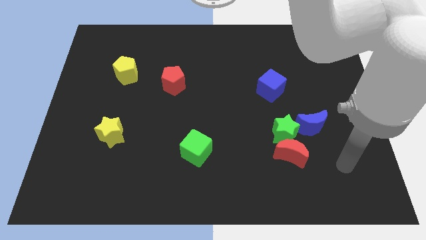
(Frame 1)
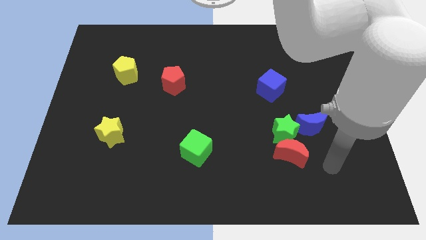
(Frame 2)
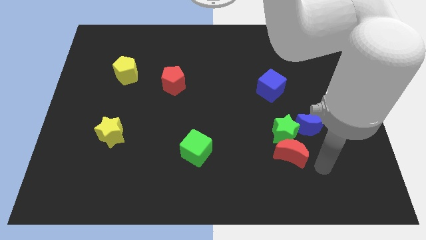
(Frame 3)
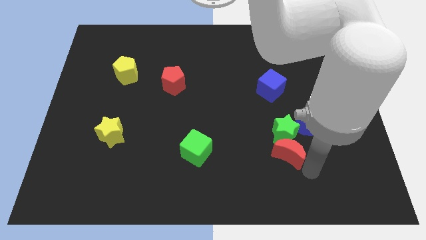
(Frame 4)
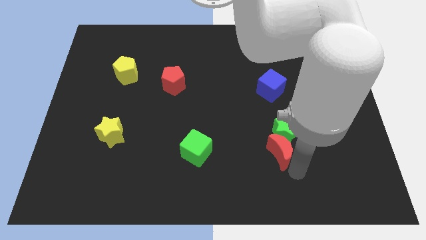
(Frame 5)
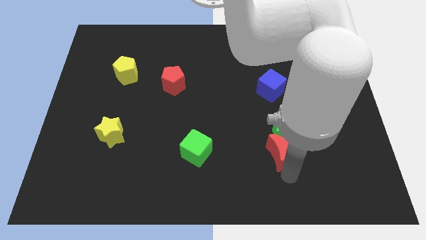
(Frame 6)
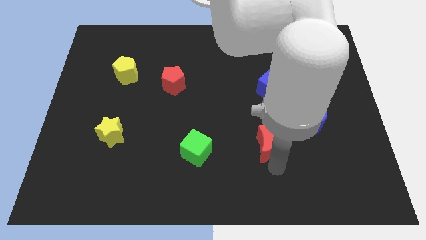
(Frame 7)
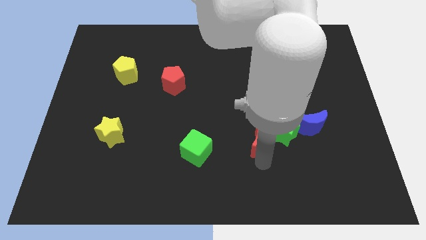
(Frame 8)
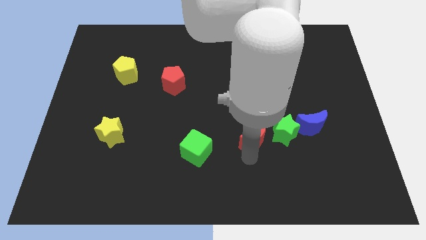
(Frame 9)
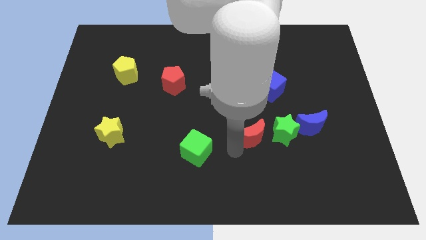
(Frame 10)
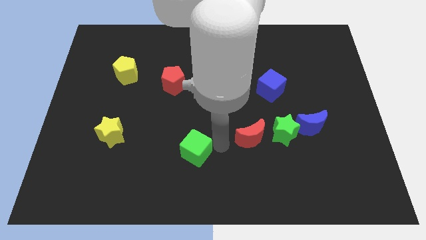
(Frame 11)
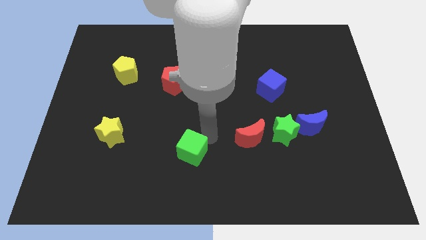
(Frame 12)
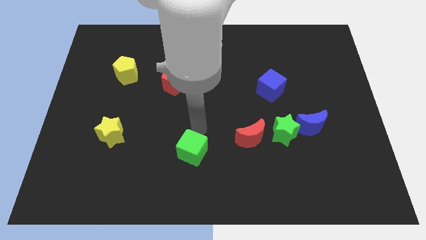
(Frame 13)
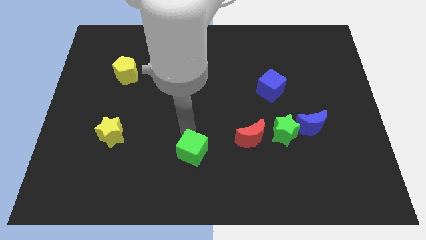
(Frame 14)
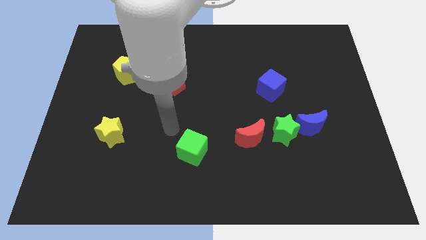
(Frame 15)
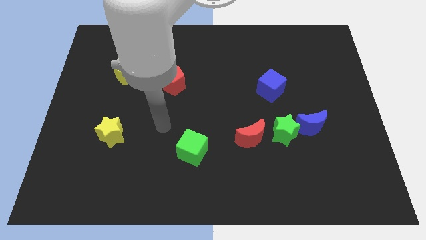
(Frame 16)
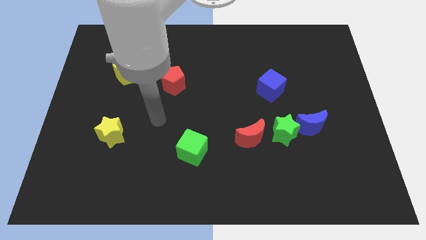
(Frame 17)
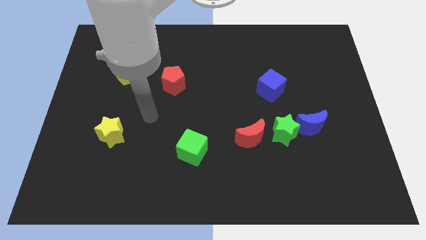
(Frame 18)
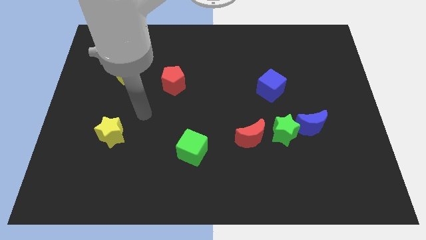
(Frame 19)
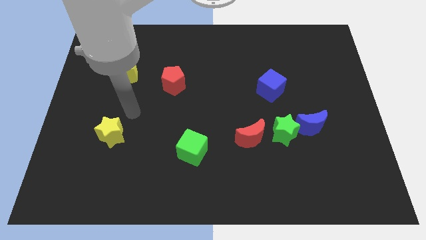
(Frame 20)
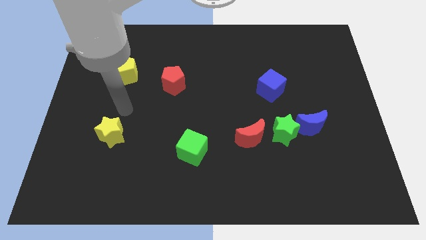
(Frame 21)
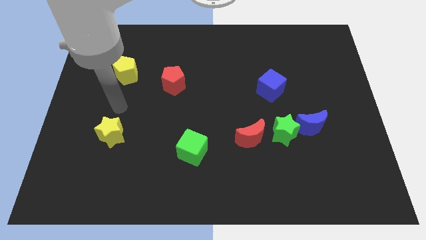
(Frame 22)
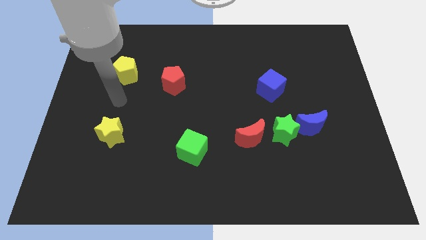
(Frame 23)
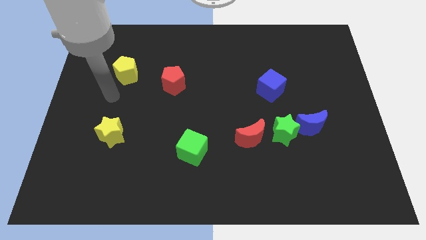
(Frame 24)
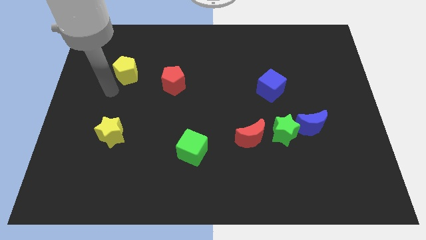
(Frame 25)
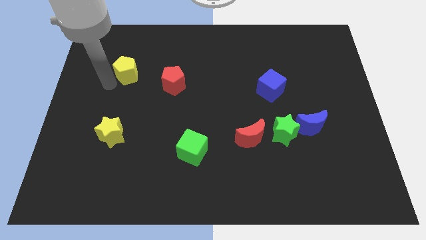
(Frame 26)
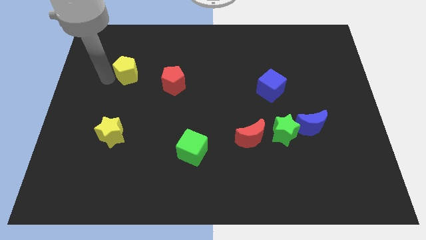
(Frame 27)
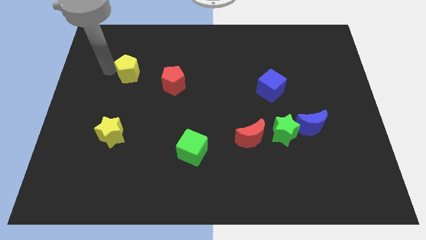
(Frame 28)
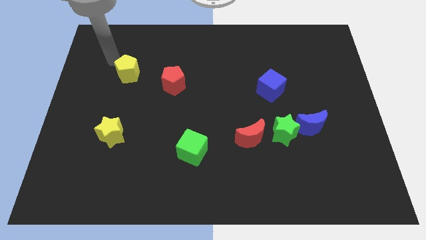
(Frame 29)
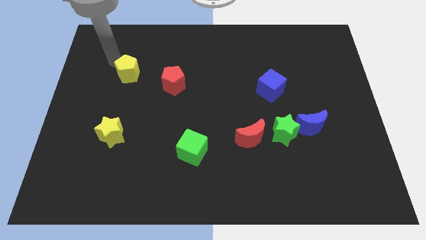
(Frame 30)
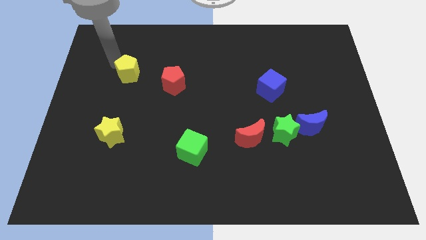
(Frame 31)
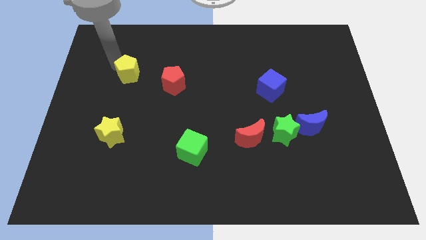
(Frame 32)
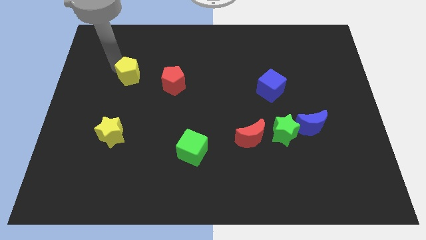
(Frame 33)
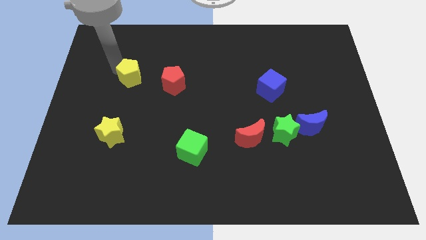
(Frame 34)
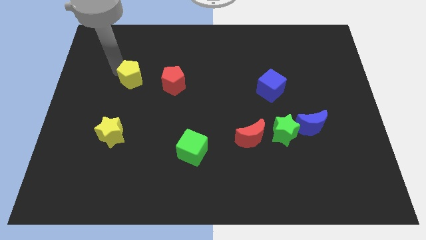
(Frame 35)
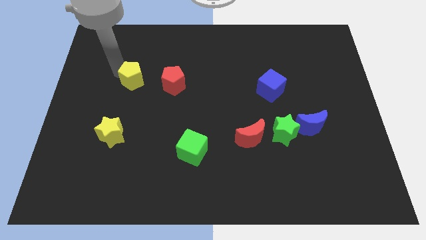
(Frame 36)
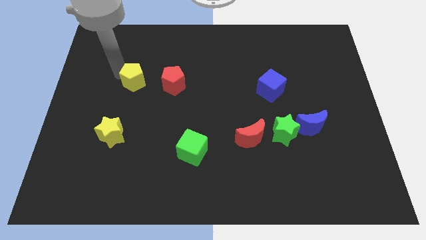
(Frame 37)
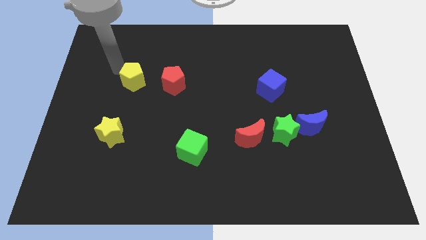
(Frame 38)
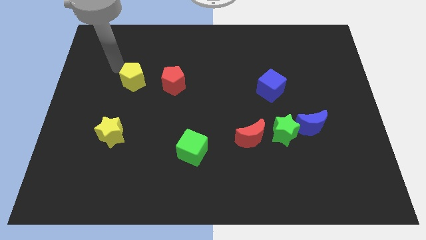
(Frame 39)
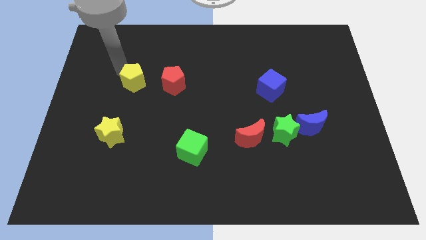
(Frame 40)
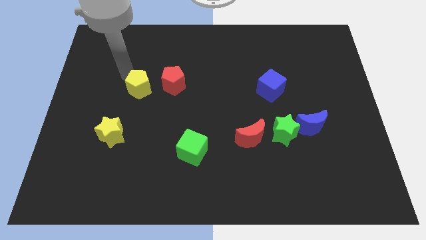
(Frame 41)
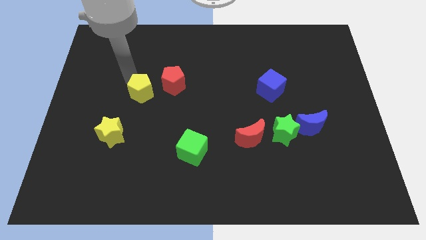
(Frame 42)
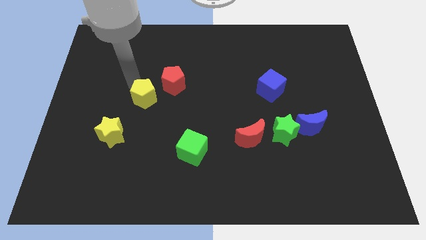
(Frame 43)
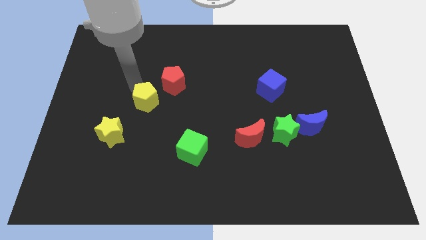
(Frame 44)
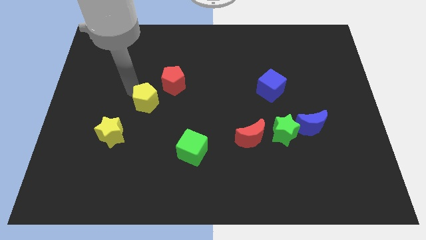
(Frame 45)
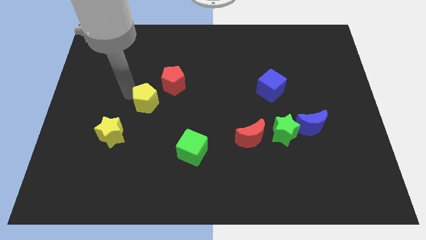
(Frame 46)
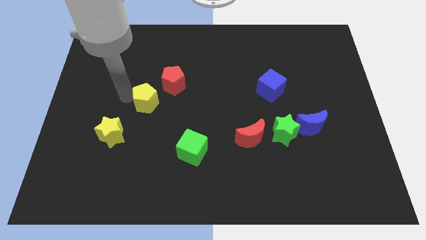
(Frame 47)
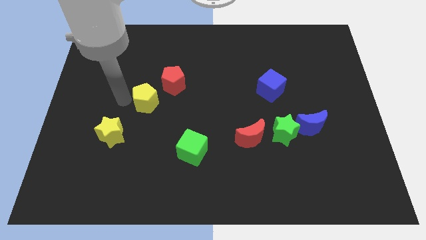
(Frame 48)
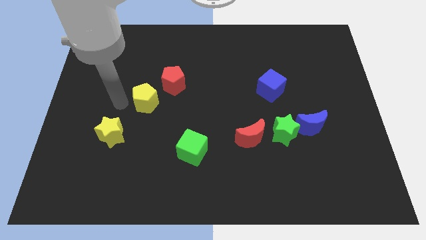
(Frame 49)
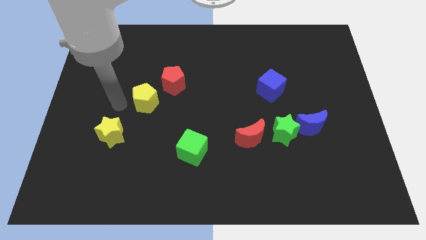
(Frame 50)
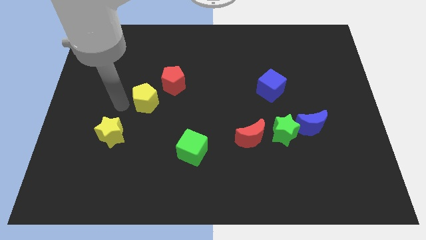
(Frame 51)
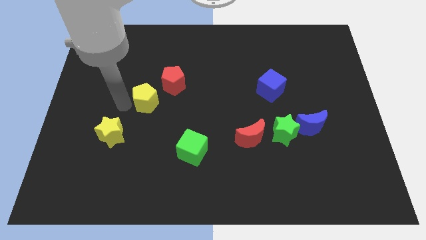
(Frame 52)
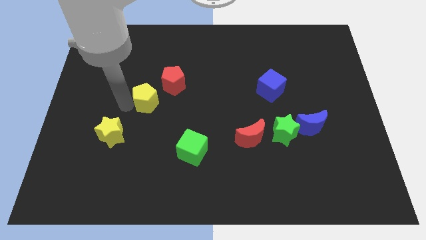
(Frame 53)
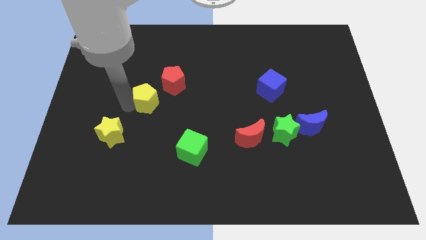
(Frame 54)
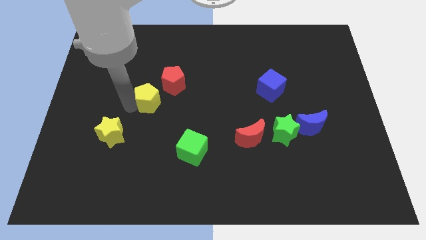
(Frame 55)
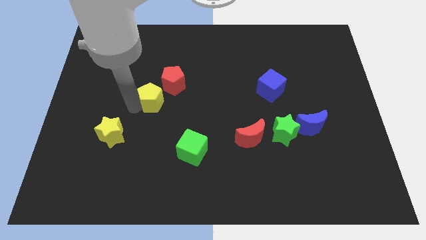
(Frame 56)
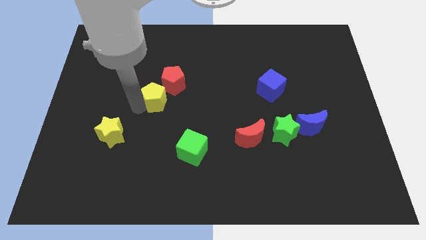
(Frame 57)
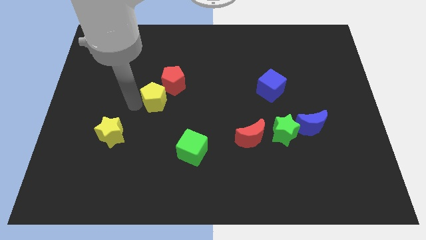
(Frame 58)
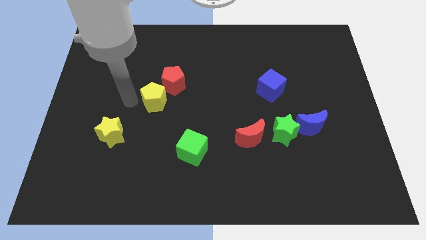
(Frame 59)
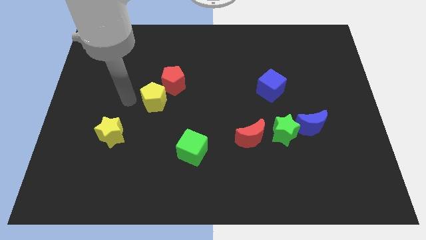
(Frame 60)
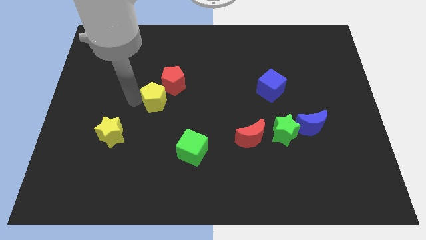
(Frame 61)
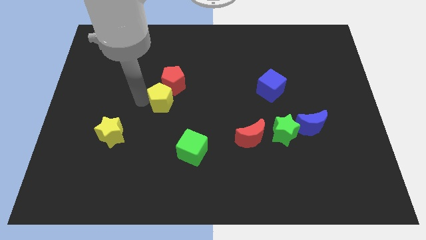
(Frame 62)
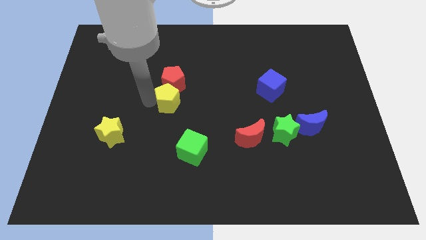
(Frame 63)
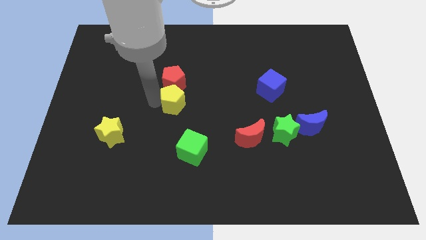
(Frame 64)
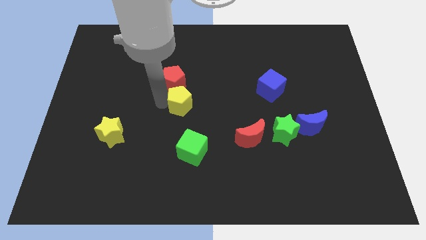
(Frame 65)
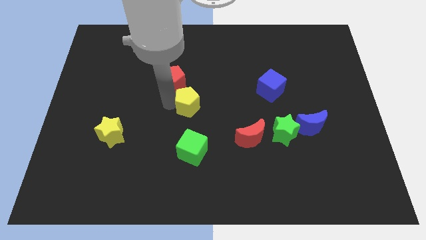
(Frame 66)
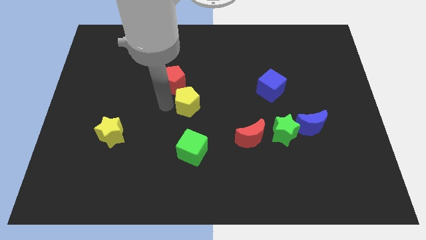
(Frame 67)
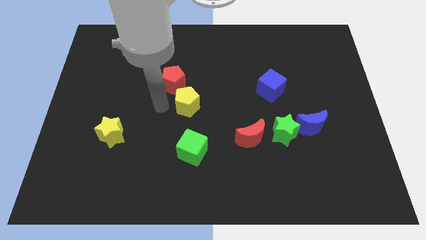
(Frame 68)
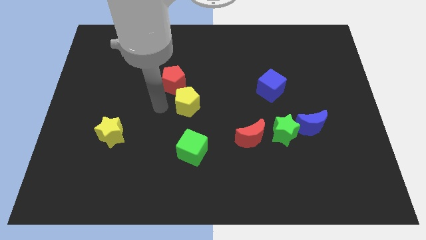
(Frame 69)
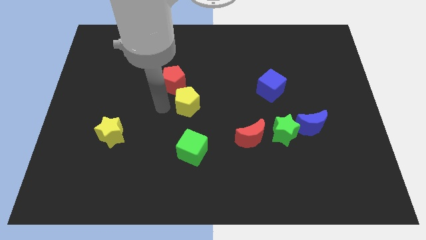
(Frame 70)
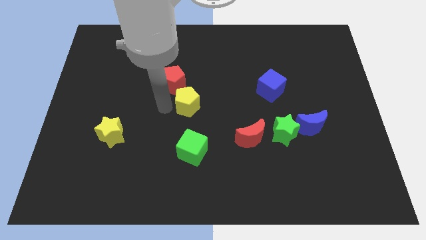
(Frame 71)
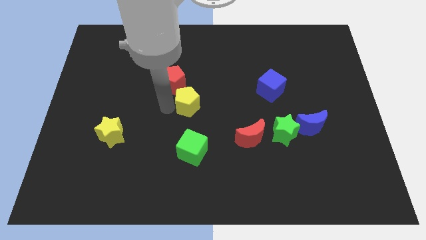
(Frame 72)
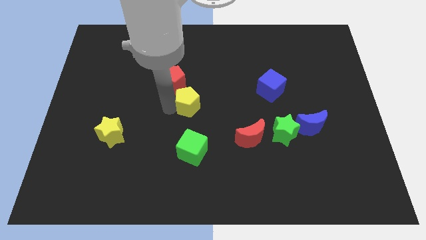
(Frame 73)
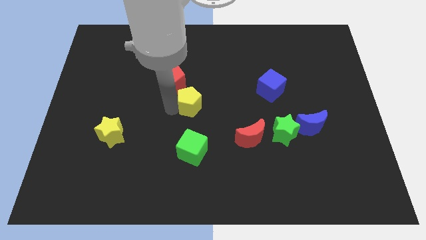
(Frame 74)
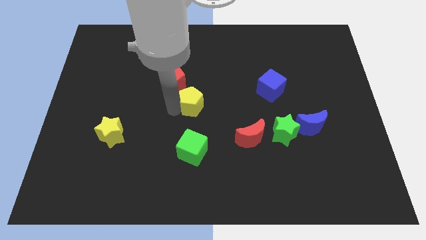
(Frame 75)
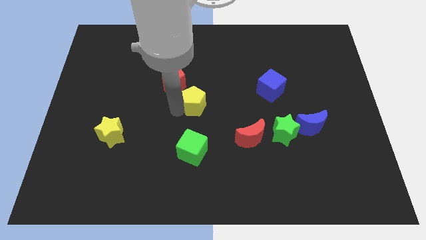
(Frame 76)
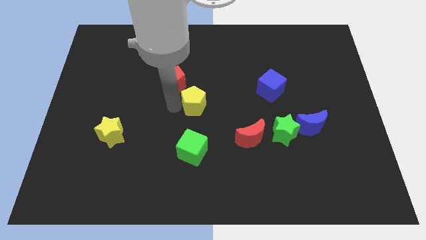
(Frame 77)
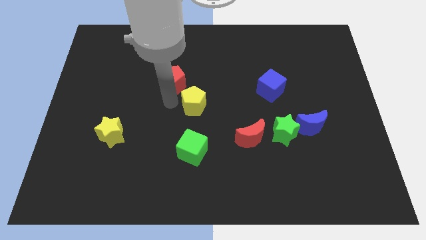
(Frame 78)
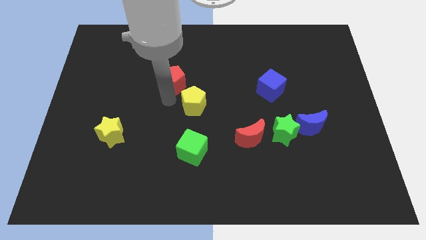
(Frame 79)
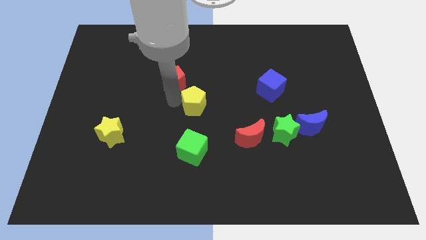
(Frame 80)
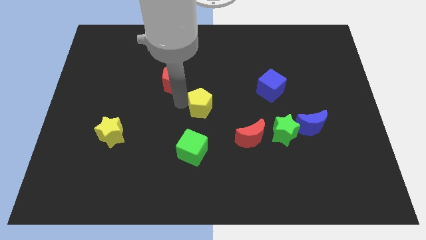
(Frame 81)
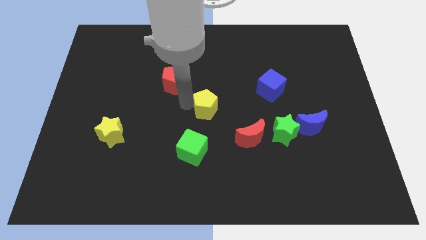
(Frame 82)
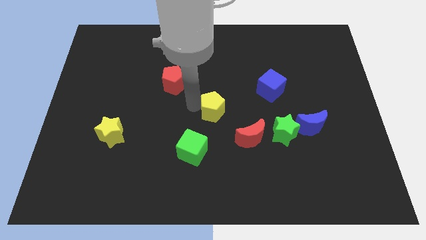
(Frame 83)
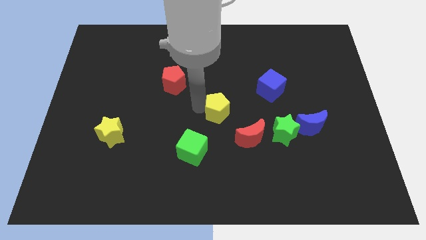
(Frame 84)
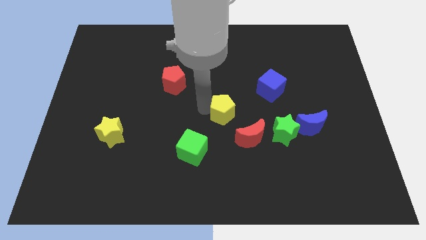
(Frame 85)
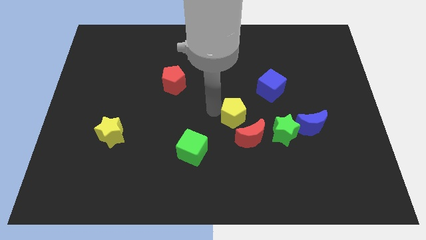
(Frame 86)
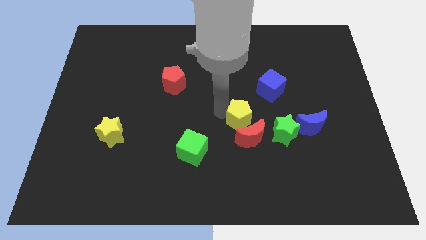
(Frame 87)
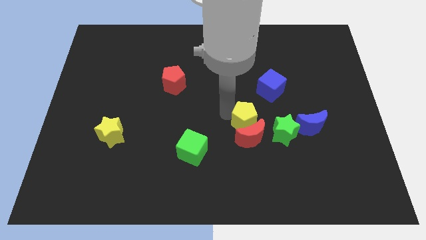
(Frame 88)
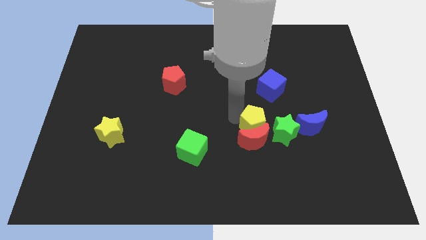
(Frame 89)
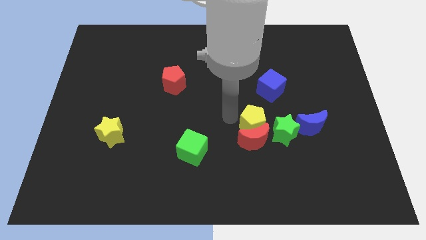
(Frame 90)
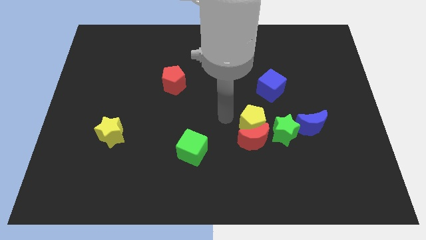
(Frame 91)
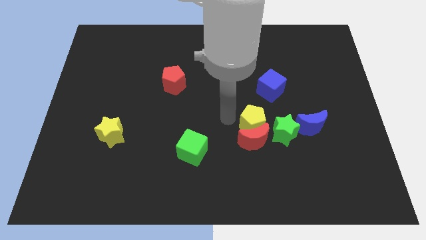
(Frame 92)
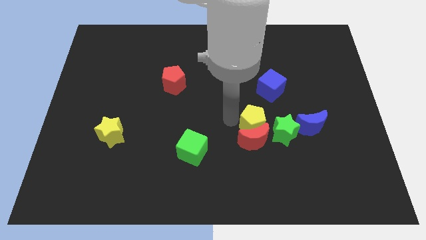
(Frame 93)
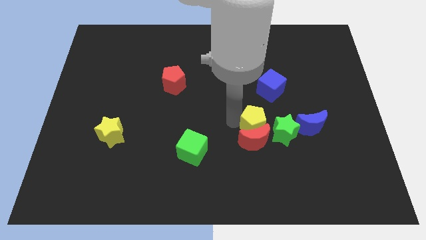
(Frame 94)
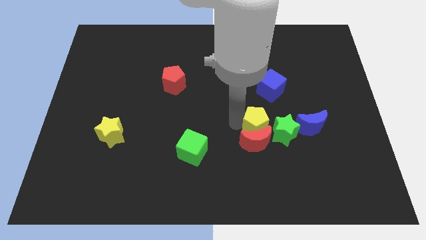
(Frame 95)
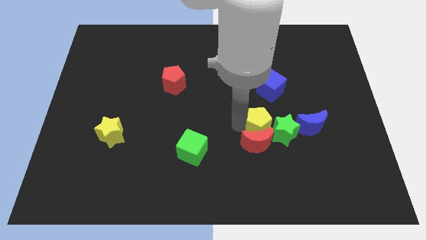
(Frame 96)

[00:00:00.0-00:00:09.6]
slide the yellow pentagon to the green star
